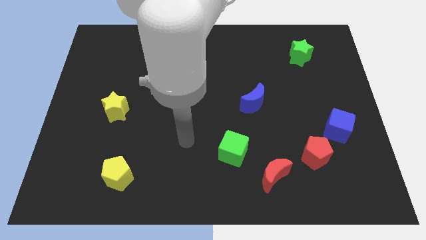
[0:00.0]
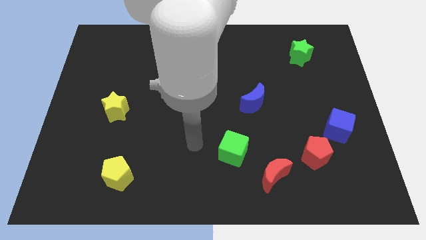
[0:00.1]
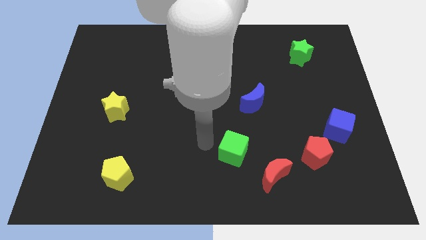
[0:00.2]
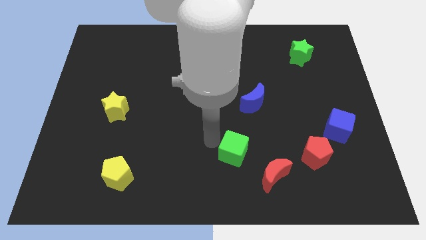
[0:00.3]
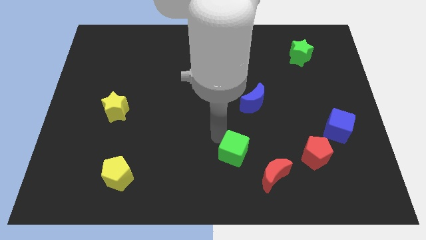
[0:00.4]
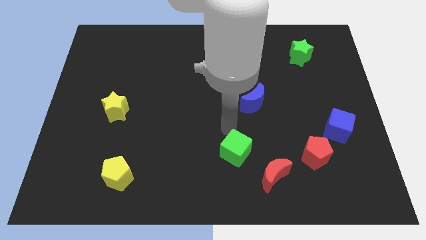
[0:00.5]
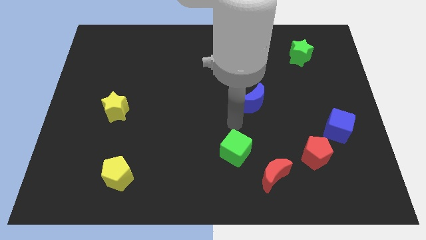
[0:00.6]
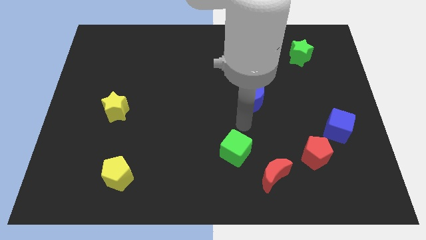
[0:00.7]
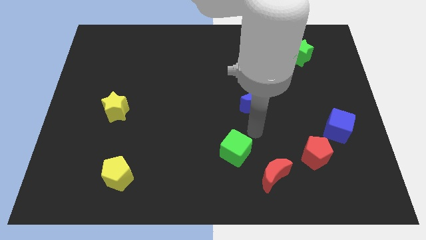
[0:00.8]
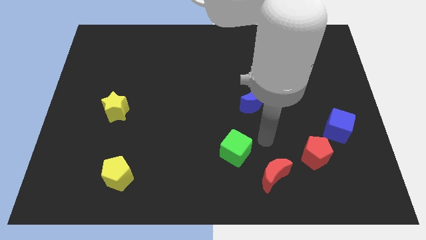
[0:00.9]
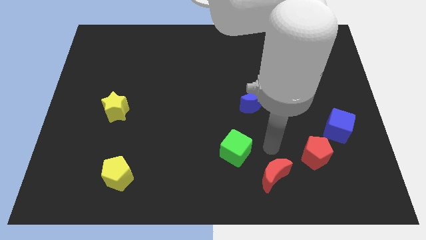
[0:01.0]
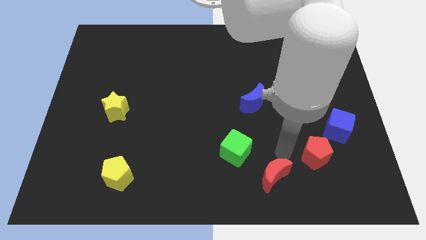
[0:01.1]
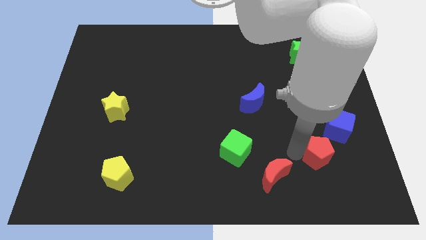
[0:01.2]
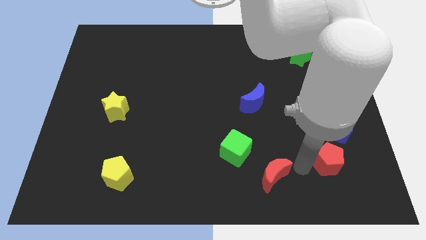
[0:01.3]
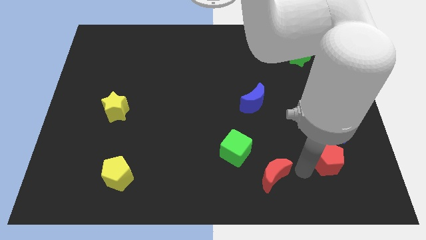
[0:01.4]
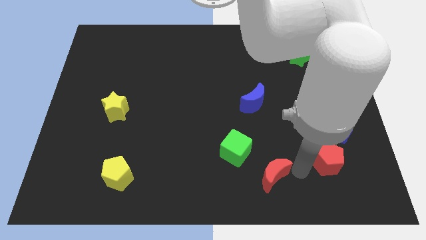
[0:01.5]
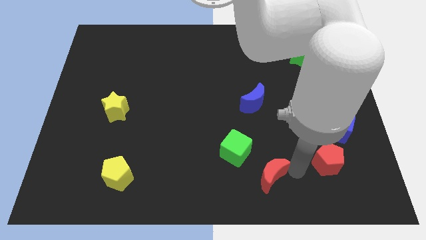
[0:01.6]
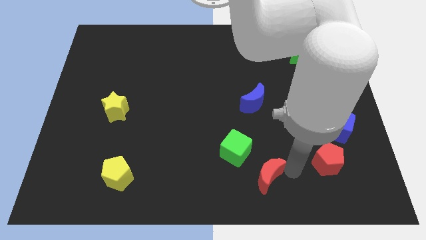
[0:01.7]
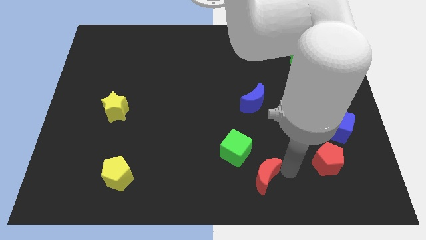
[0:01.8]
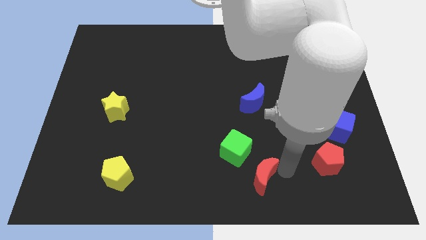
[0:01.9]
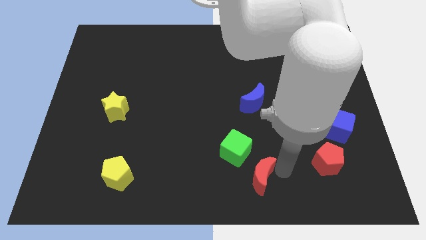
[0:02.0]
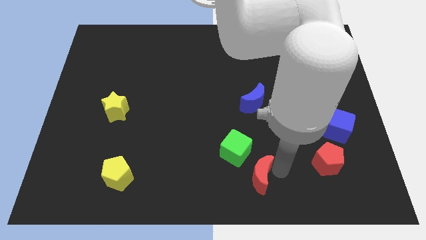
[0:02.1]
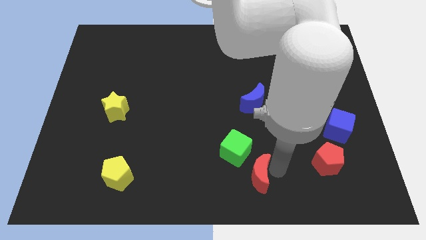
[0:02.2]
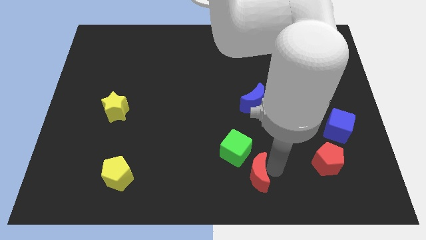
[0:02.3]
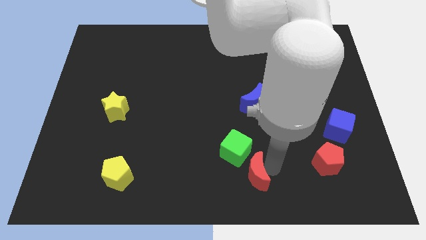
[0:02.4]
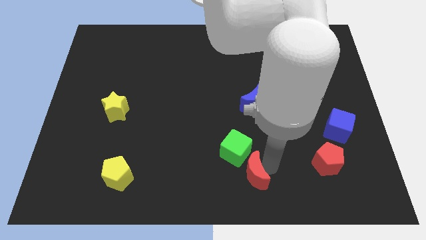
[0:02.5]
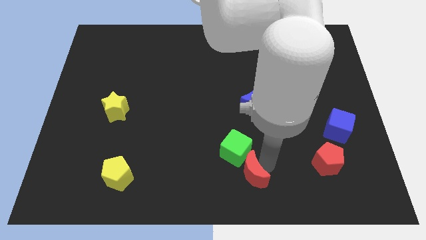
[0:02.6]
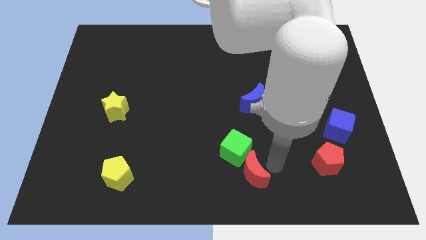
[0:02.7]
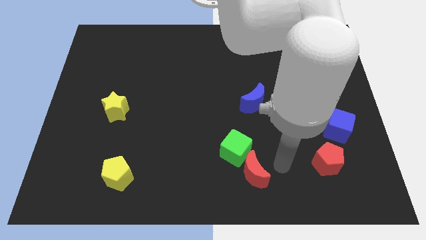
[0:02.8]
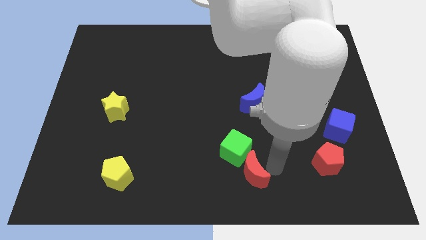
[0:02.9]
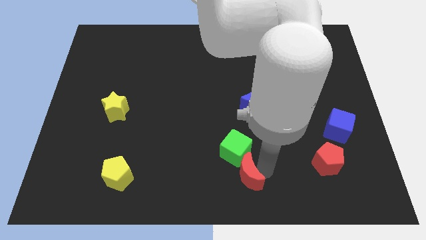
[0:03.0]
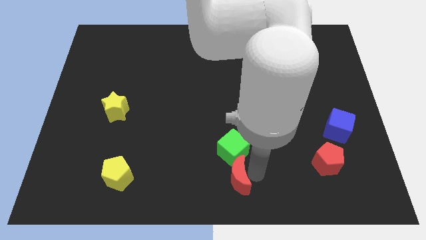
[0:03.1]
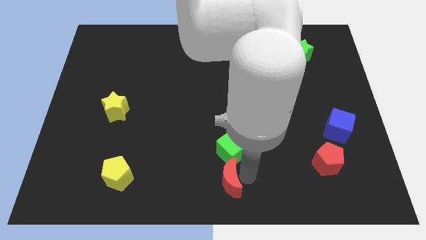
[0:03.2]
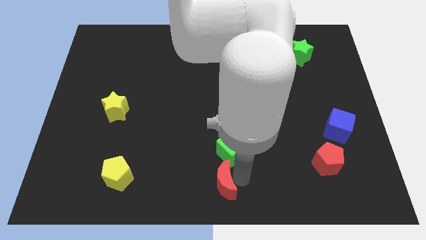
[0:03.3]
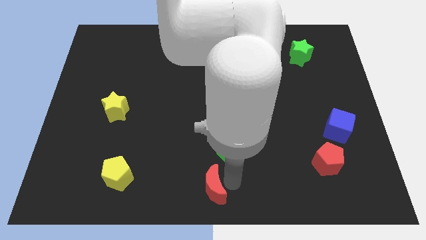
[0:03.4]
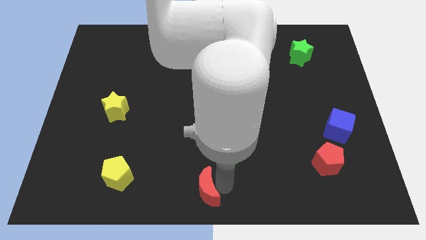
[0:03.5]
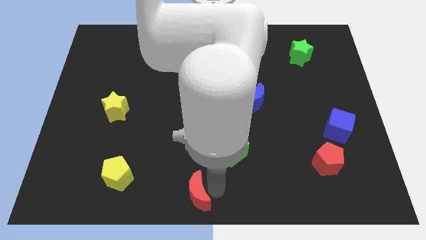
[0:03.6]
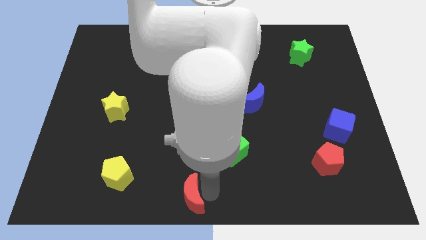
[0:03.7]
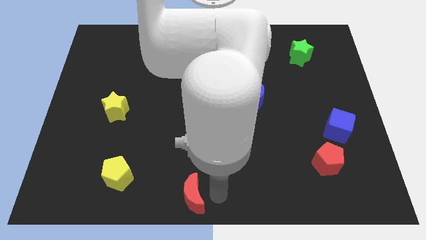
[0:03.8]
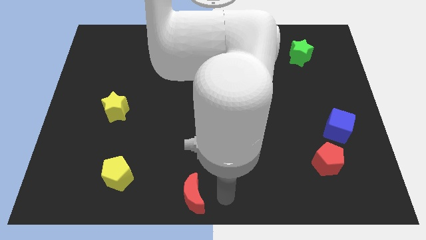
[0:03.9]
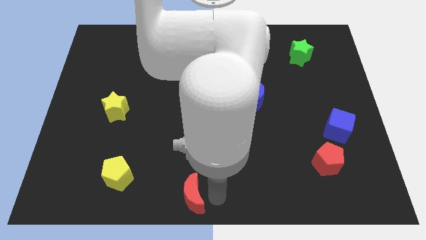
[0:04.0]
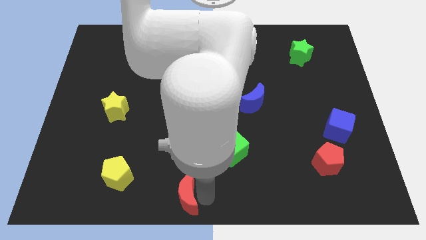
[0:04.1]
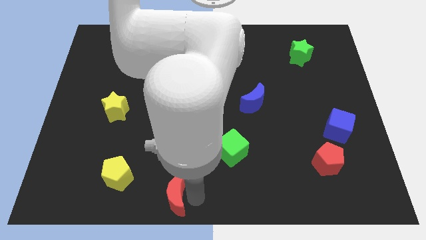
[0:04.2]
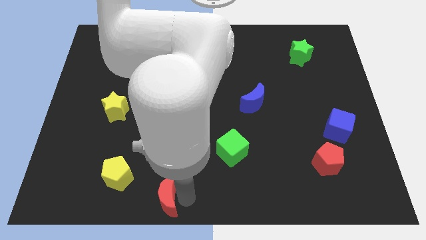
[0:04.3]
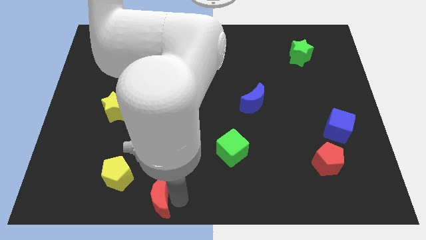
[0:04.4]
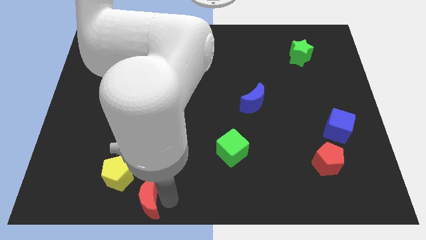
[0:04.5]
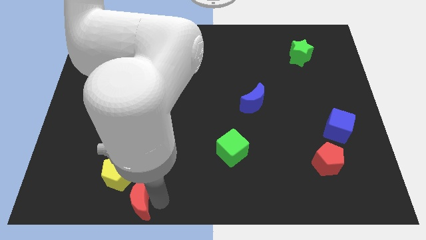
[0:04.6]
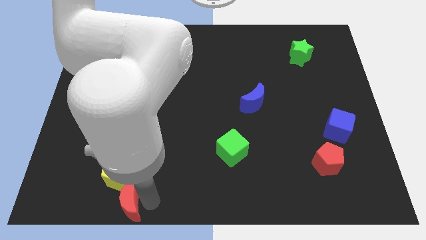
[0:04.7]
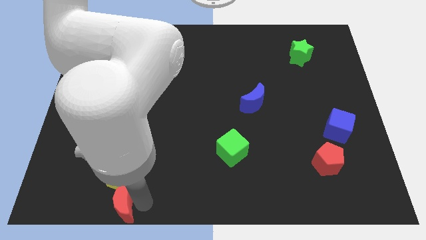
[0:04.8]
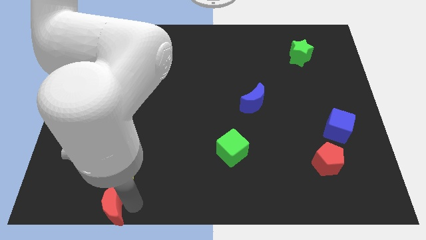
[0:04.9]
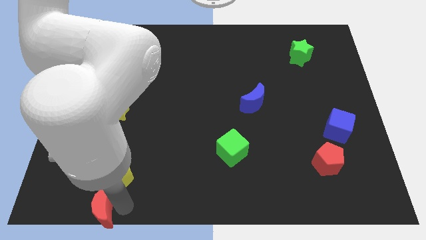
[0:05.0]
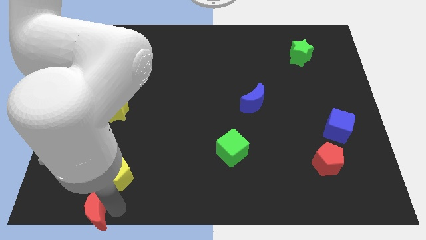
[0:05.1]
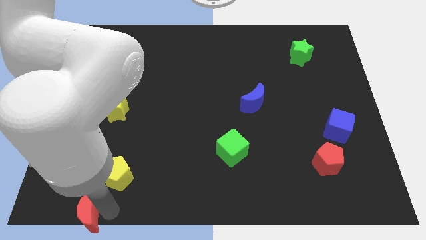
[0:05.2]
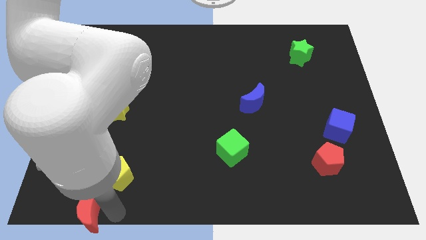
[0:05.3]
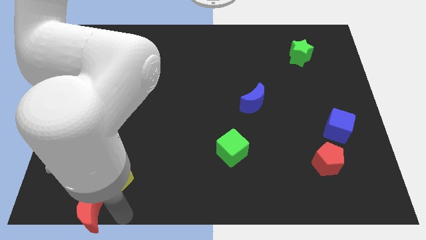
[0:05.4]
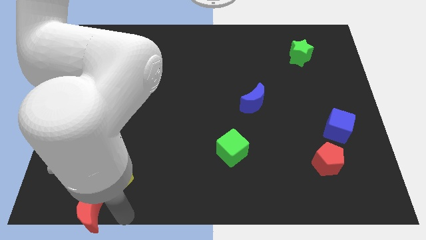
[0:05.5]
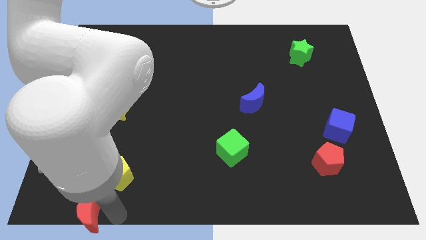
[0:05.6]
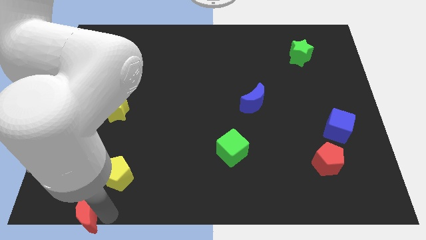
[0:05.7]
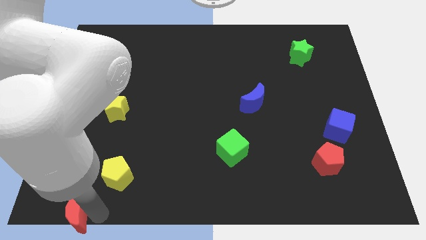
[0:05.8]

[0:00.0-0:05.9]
move the red moon to the bottom left corner
